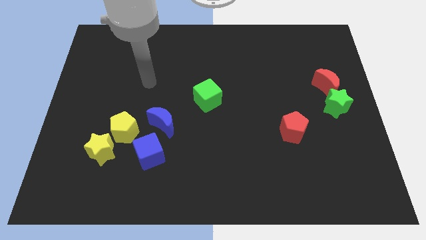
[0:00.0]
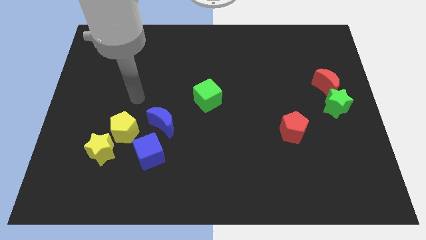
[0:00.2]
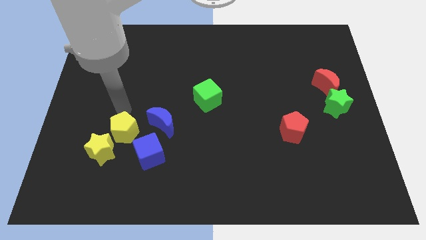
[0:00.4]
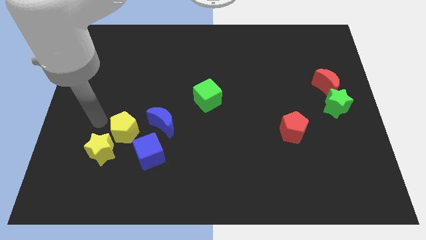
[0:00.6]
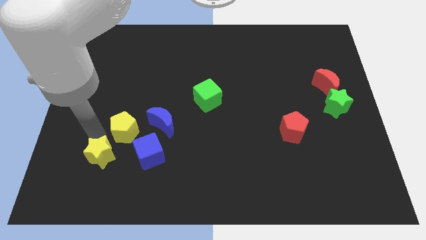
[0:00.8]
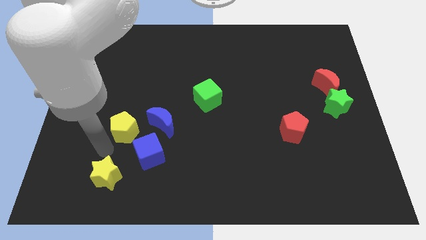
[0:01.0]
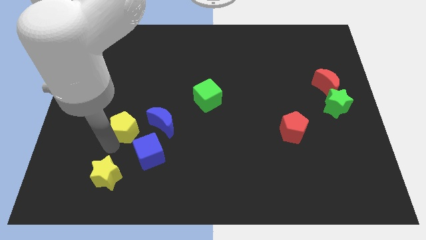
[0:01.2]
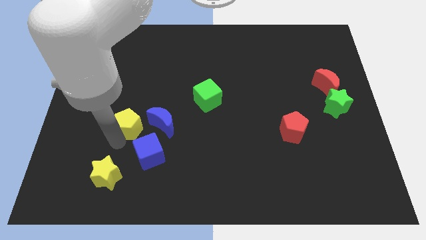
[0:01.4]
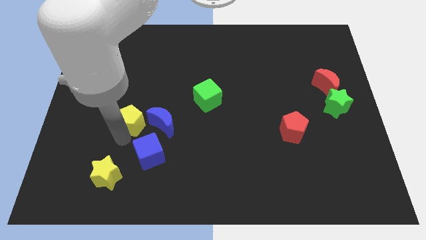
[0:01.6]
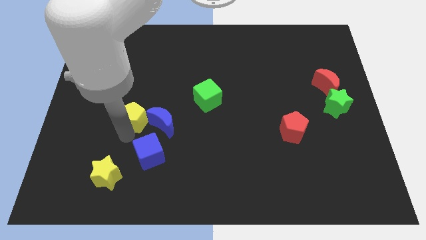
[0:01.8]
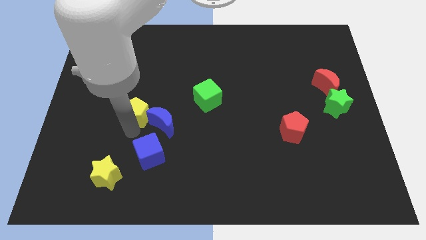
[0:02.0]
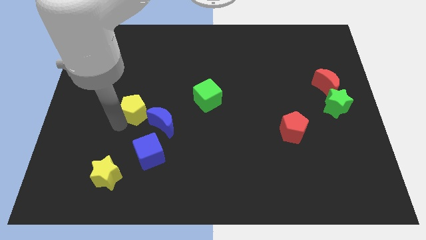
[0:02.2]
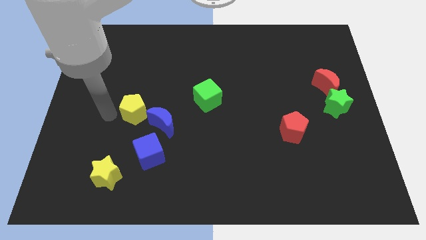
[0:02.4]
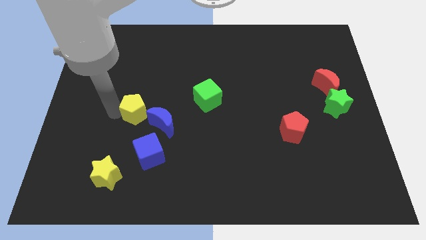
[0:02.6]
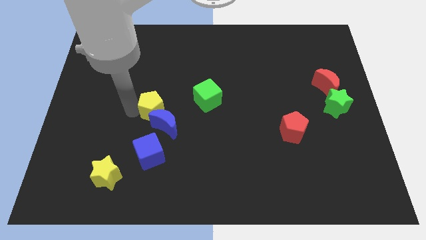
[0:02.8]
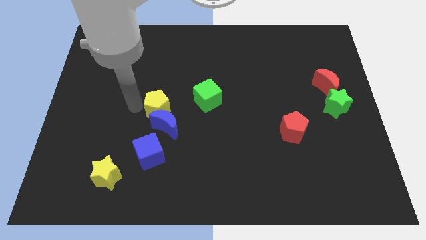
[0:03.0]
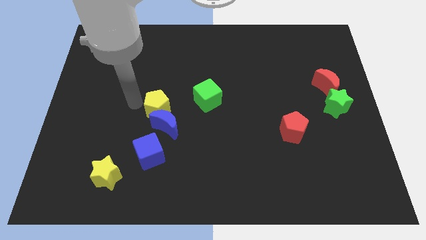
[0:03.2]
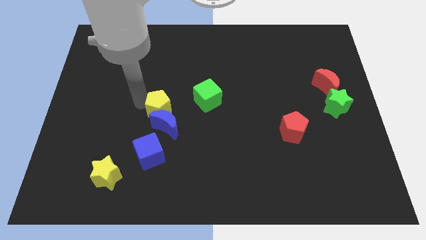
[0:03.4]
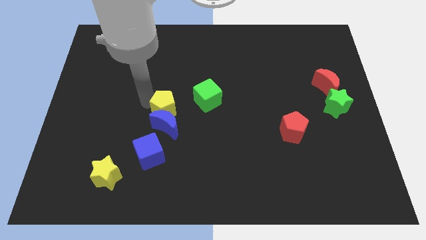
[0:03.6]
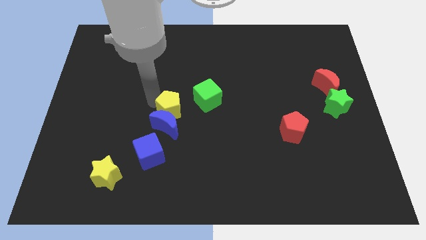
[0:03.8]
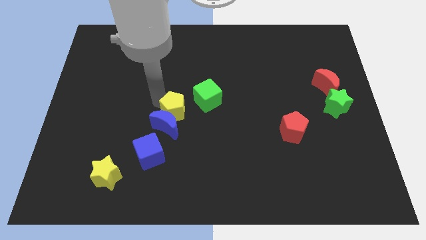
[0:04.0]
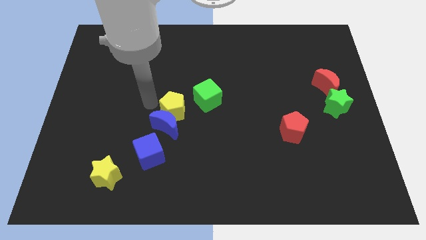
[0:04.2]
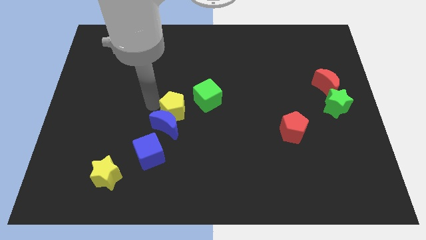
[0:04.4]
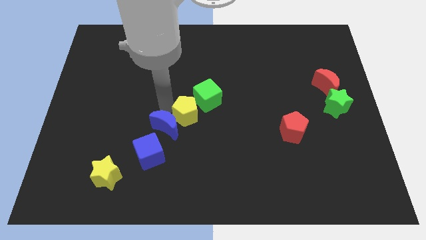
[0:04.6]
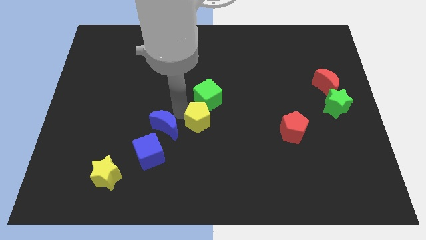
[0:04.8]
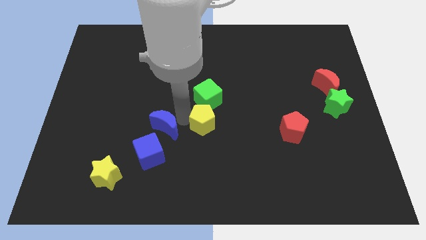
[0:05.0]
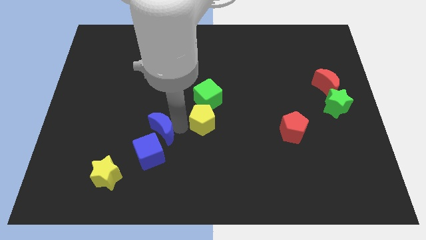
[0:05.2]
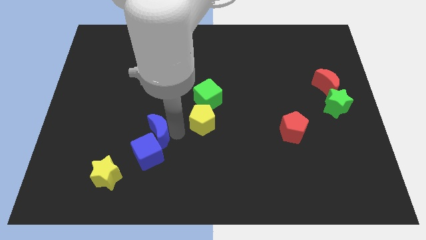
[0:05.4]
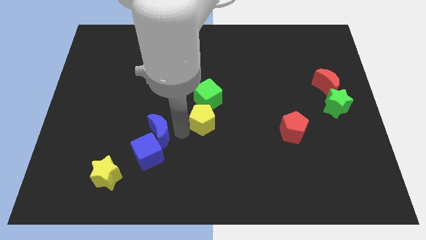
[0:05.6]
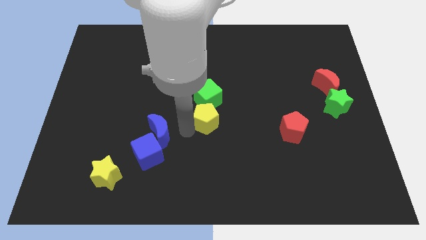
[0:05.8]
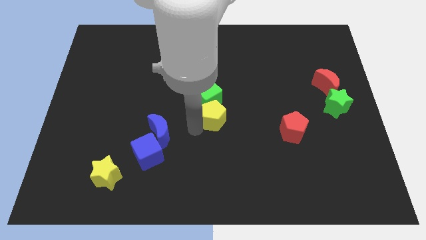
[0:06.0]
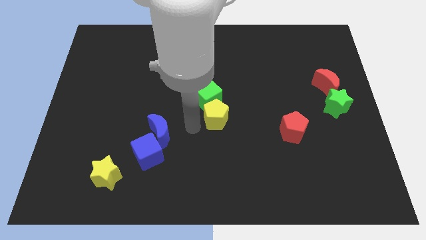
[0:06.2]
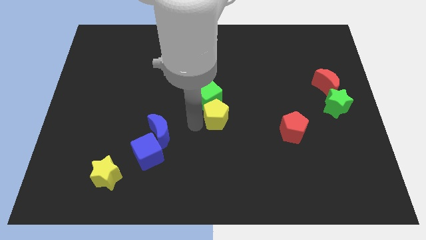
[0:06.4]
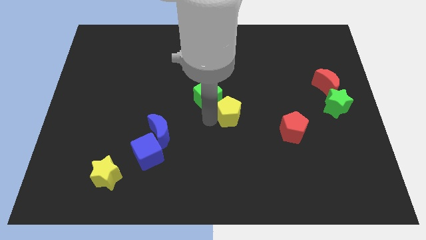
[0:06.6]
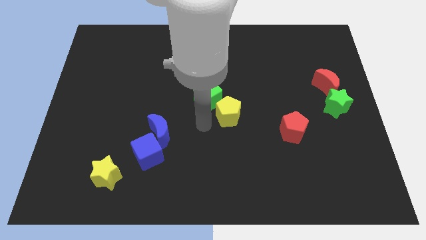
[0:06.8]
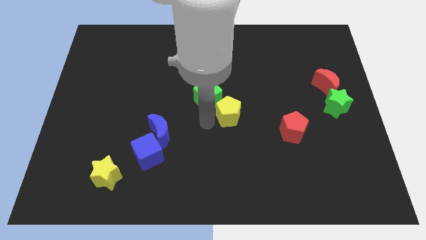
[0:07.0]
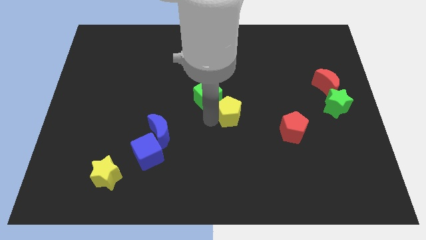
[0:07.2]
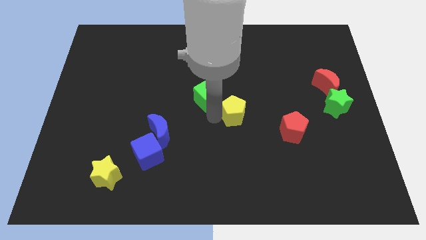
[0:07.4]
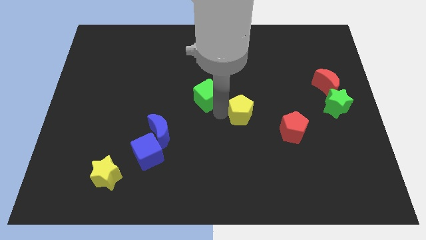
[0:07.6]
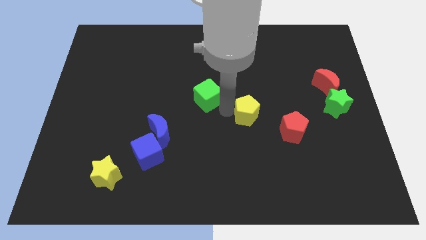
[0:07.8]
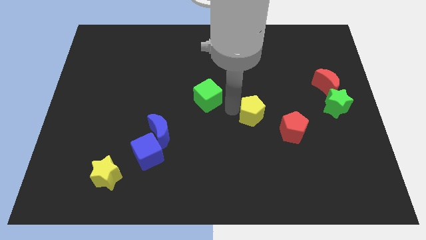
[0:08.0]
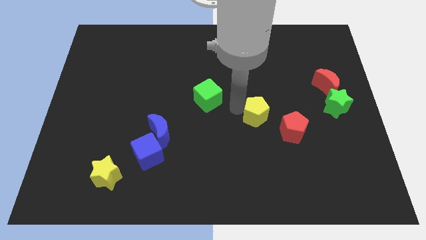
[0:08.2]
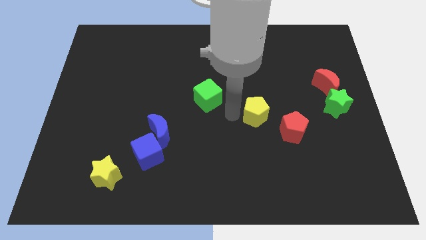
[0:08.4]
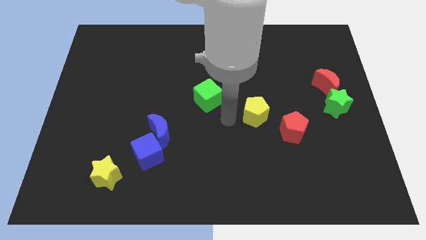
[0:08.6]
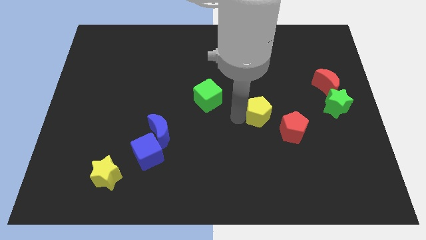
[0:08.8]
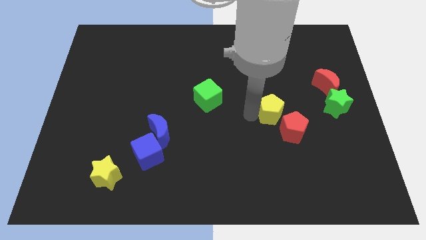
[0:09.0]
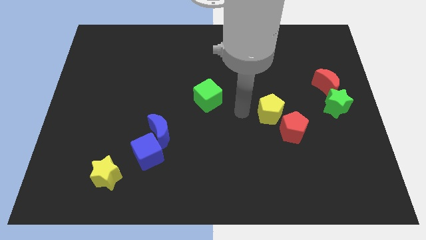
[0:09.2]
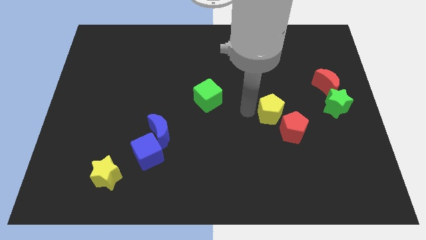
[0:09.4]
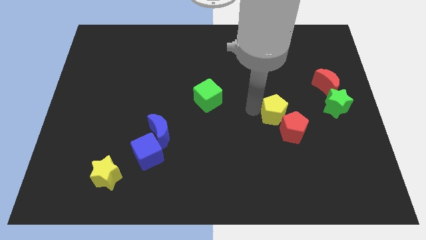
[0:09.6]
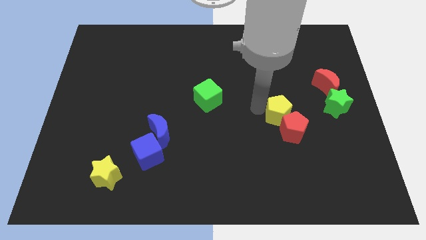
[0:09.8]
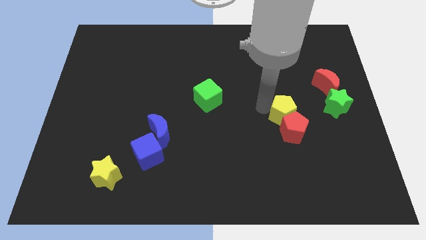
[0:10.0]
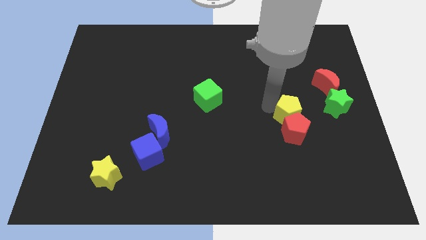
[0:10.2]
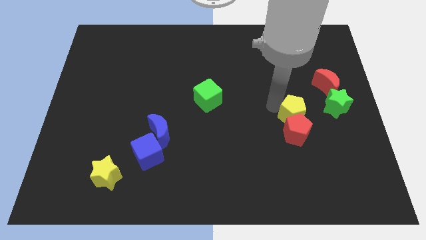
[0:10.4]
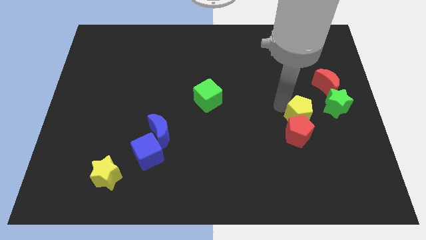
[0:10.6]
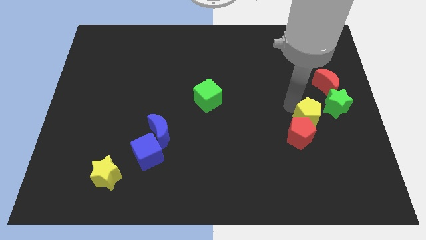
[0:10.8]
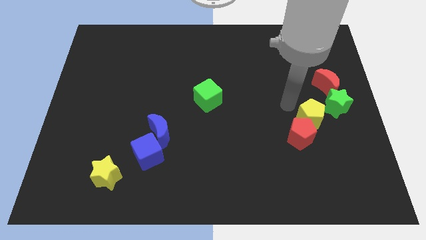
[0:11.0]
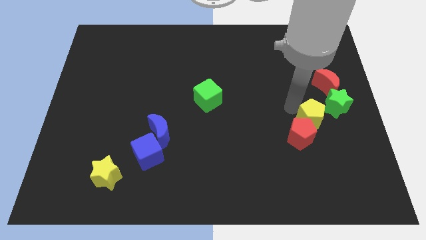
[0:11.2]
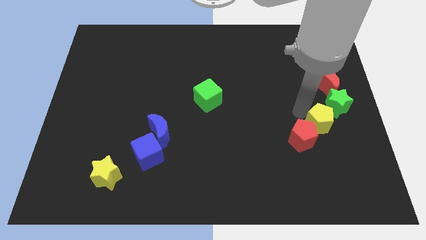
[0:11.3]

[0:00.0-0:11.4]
push the yellow pentagon right of the red pentagon

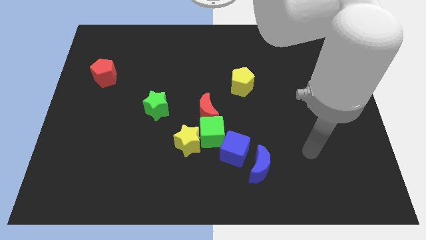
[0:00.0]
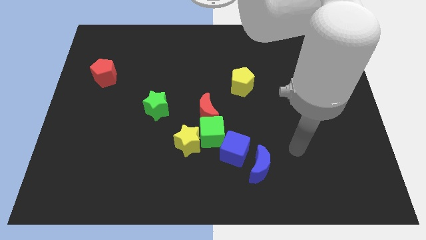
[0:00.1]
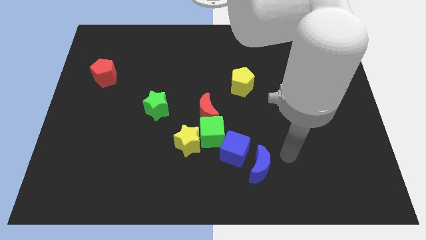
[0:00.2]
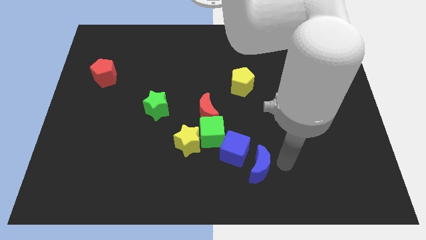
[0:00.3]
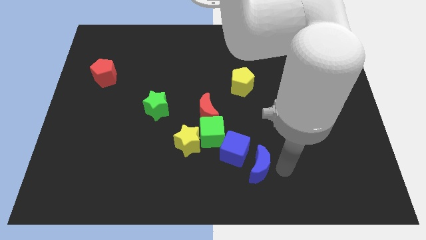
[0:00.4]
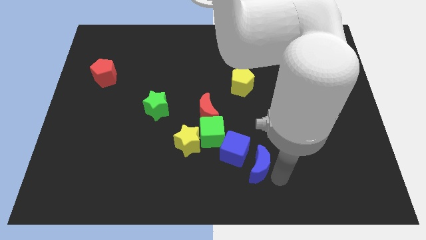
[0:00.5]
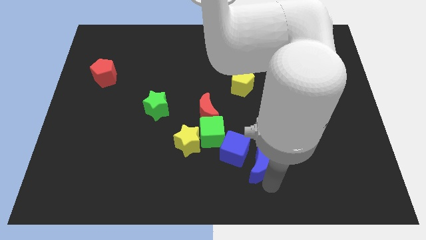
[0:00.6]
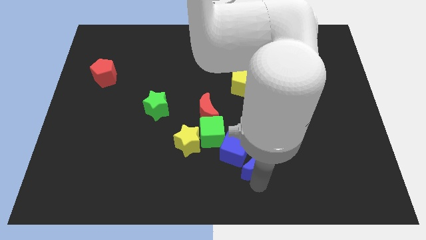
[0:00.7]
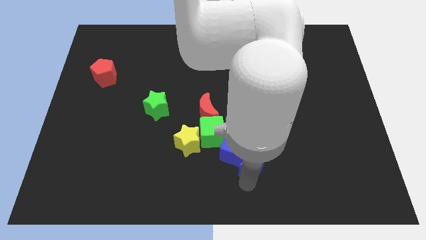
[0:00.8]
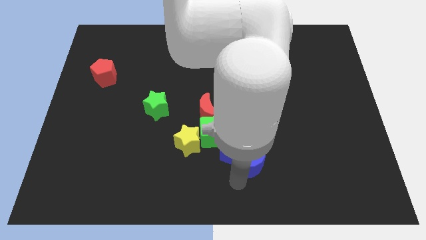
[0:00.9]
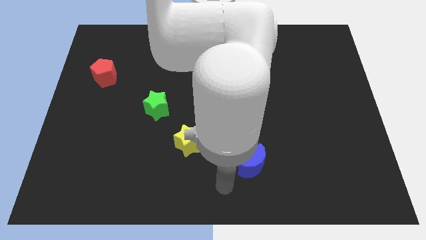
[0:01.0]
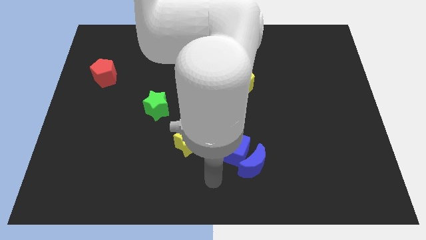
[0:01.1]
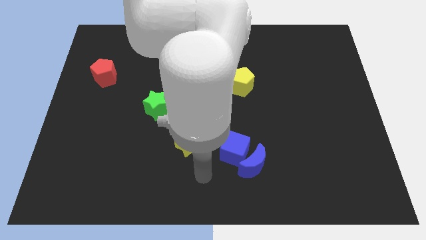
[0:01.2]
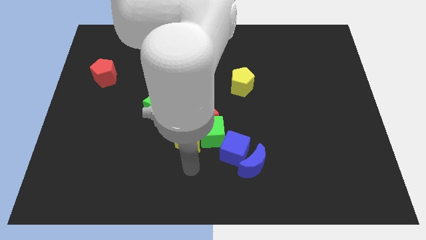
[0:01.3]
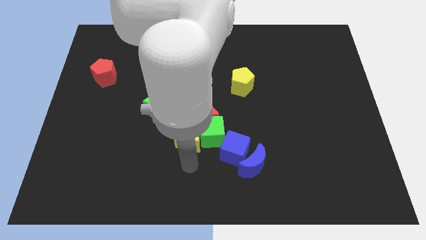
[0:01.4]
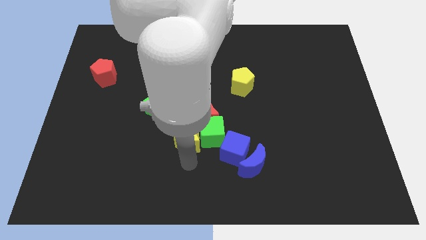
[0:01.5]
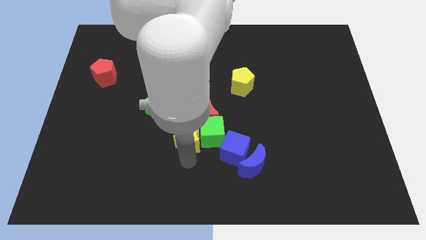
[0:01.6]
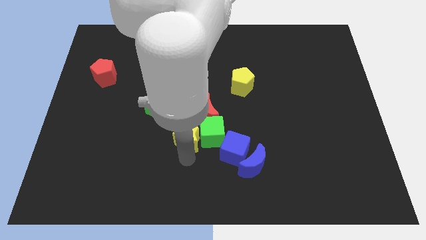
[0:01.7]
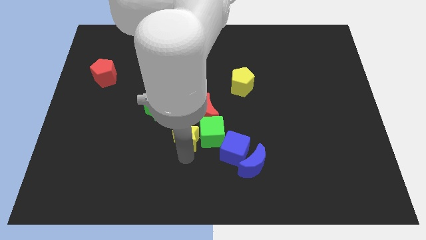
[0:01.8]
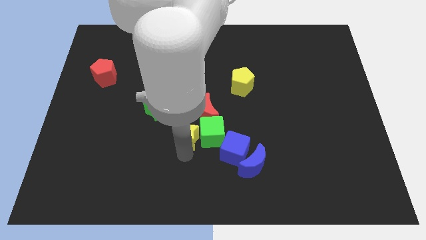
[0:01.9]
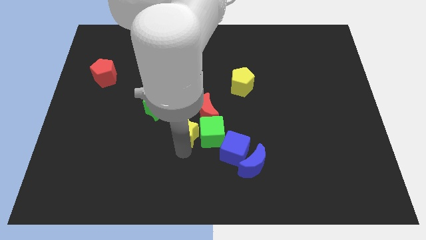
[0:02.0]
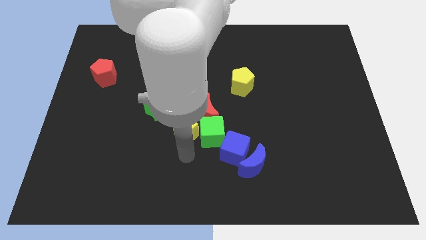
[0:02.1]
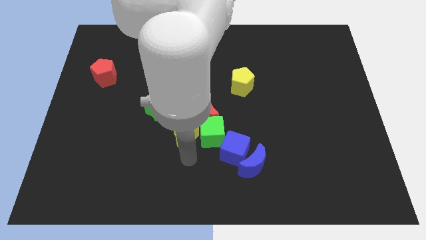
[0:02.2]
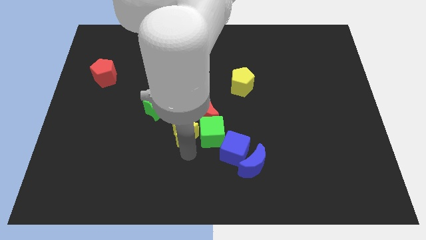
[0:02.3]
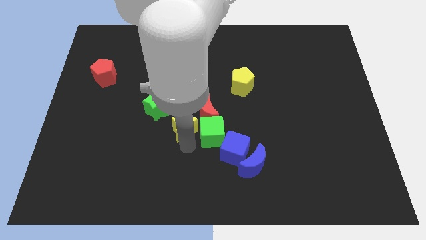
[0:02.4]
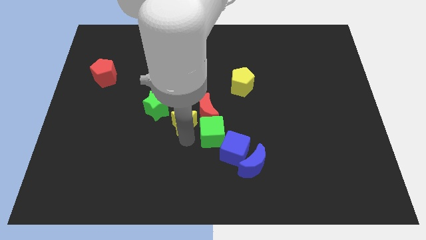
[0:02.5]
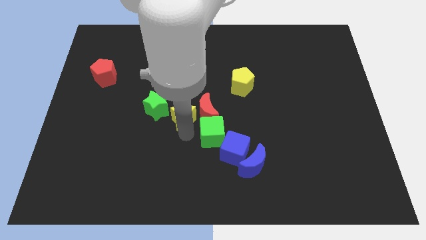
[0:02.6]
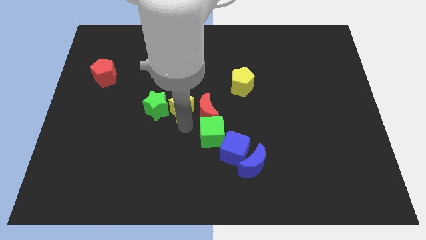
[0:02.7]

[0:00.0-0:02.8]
move the yellow star to the top right side of the green star
